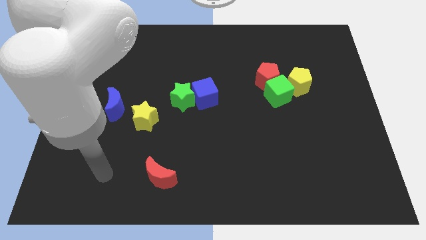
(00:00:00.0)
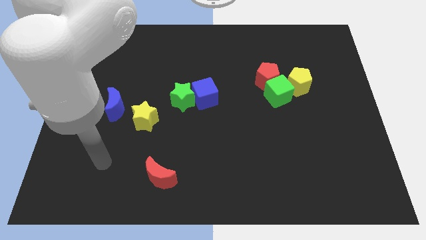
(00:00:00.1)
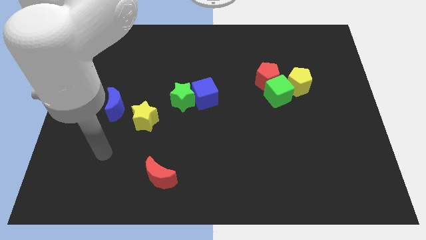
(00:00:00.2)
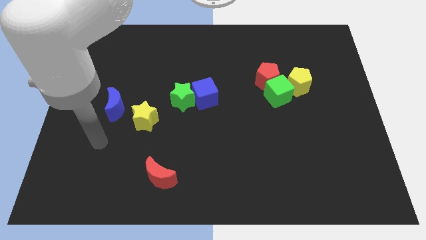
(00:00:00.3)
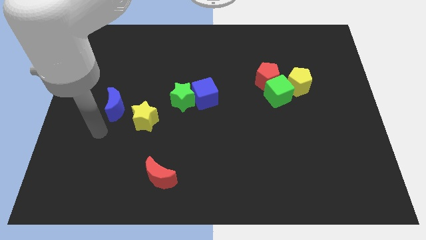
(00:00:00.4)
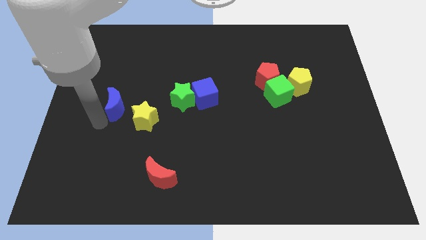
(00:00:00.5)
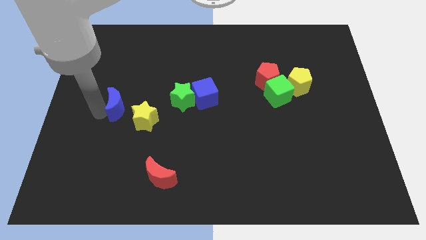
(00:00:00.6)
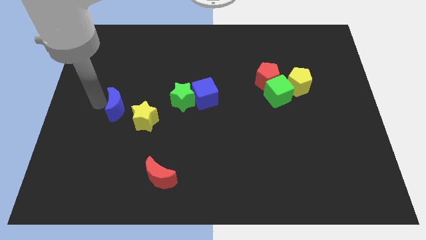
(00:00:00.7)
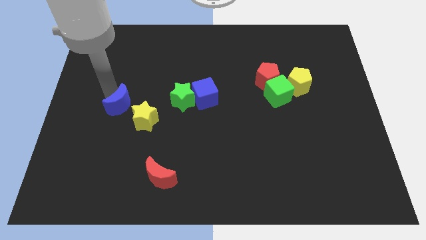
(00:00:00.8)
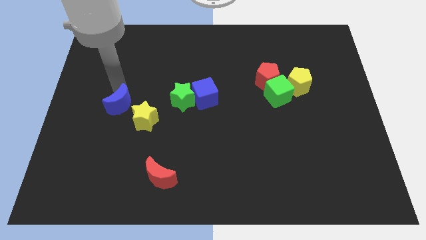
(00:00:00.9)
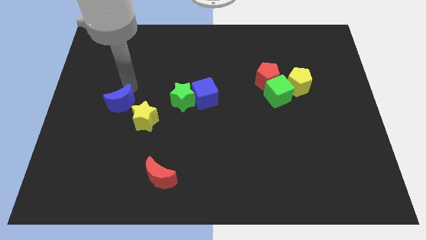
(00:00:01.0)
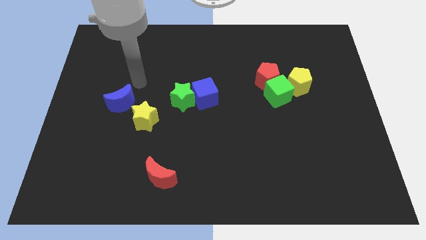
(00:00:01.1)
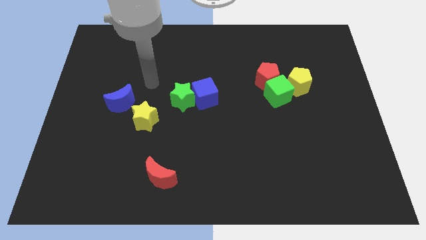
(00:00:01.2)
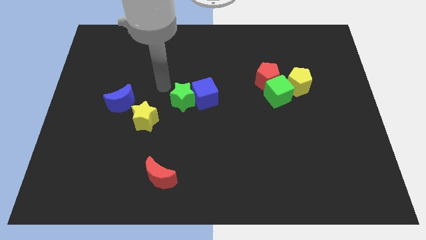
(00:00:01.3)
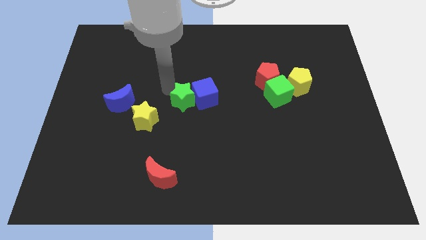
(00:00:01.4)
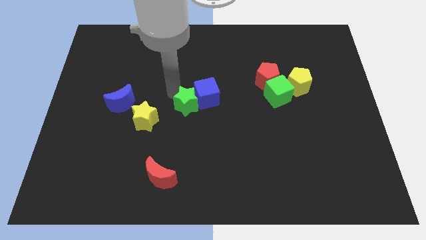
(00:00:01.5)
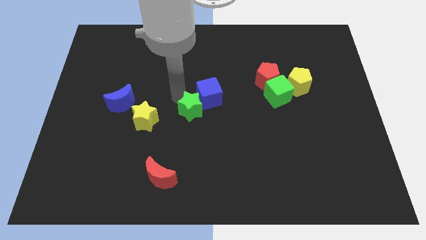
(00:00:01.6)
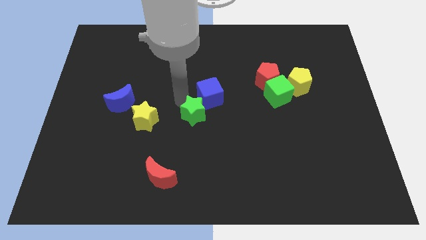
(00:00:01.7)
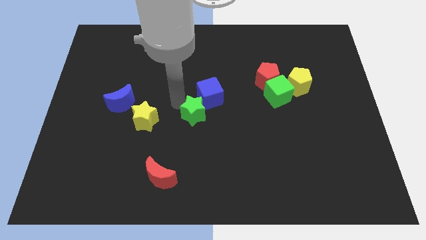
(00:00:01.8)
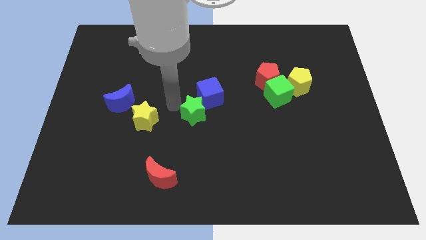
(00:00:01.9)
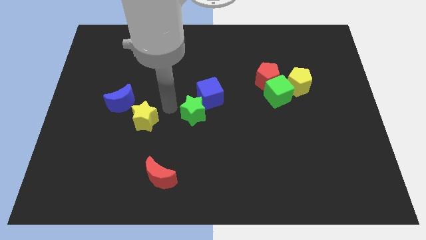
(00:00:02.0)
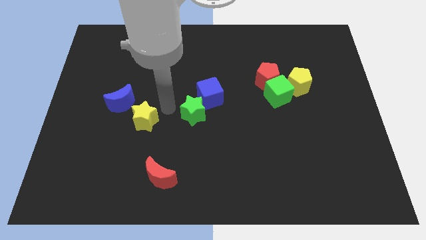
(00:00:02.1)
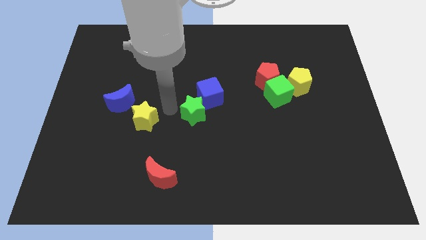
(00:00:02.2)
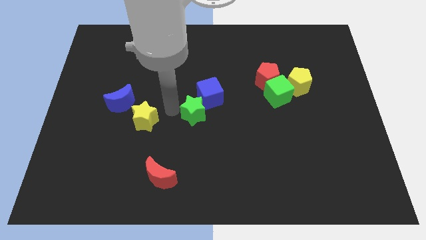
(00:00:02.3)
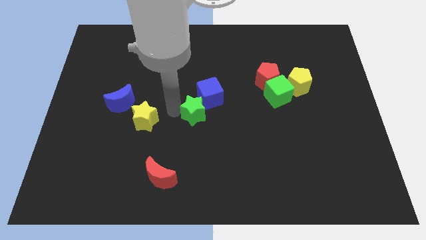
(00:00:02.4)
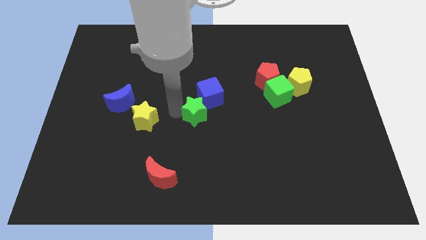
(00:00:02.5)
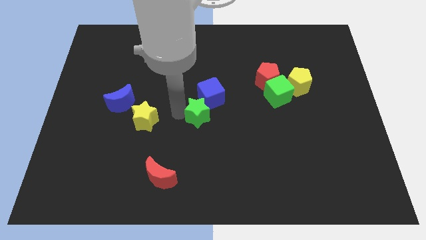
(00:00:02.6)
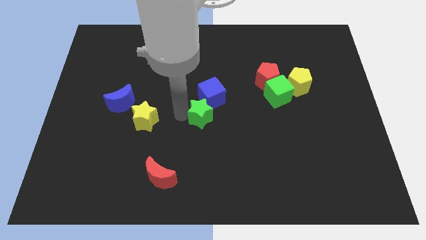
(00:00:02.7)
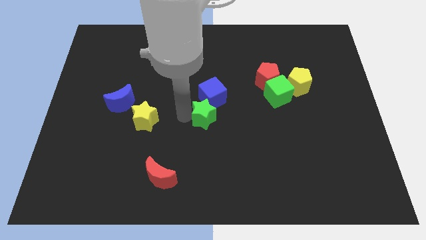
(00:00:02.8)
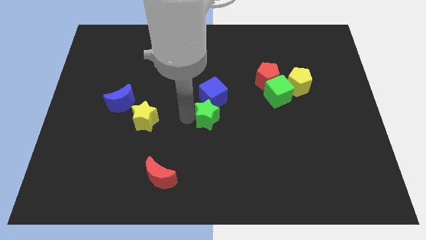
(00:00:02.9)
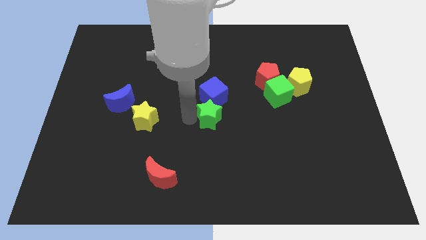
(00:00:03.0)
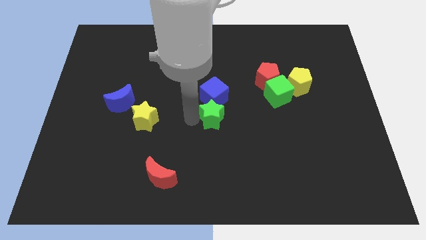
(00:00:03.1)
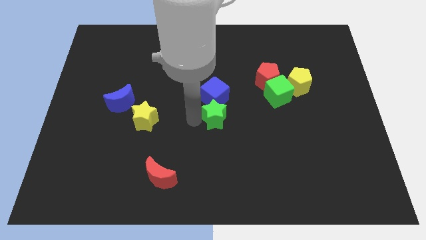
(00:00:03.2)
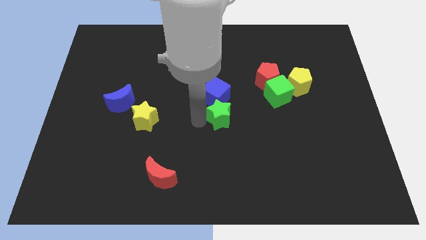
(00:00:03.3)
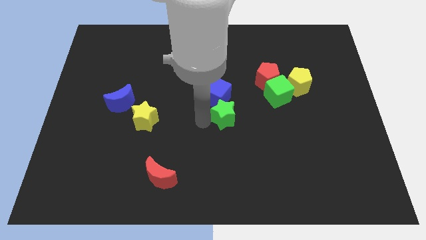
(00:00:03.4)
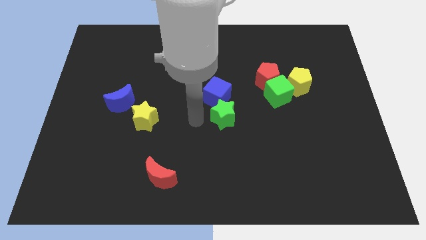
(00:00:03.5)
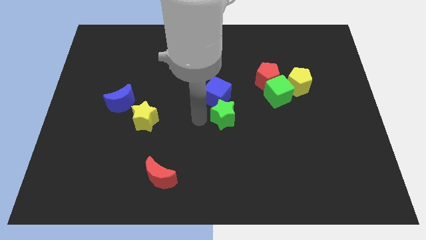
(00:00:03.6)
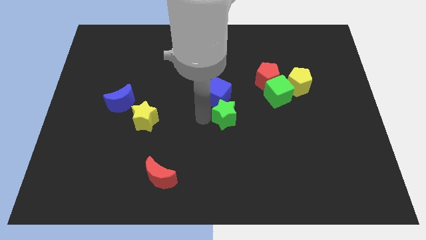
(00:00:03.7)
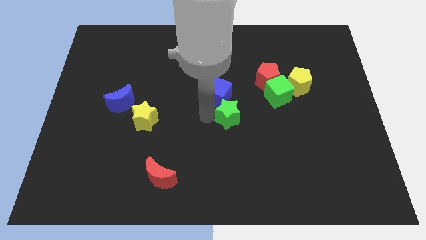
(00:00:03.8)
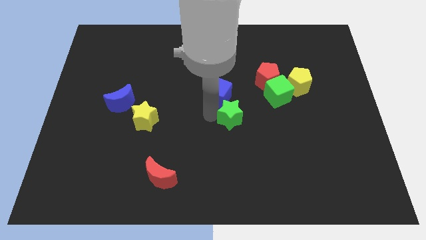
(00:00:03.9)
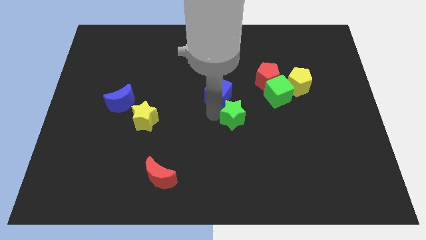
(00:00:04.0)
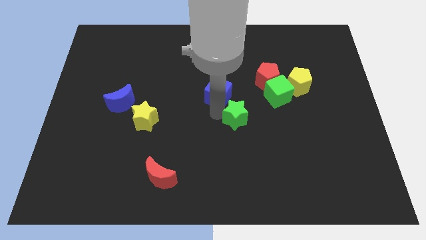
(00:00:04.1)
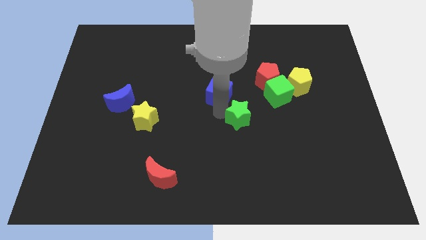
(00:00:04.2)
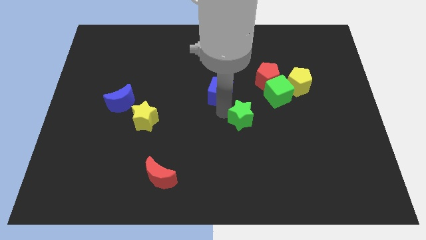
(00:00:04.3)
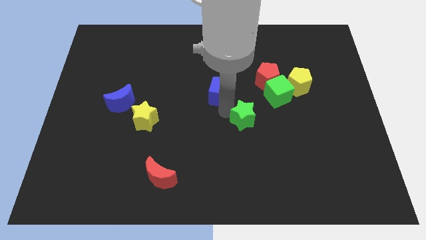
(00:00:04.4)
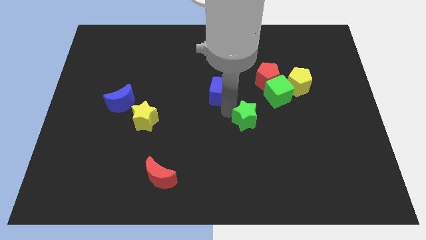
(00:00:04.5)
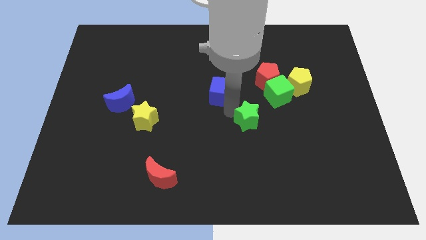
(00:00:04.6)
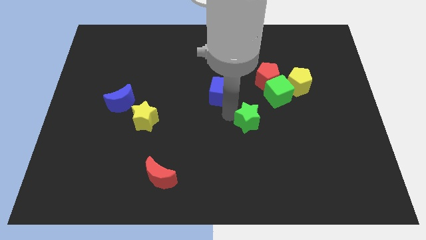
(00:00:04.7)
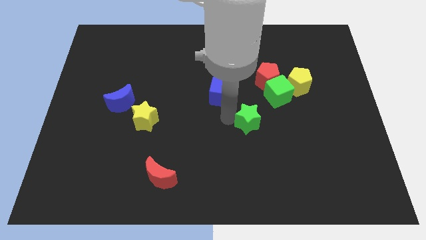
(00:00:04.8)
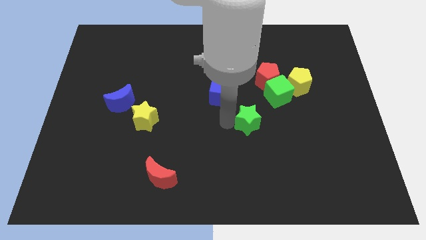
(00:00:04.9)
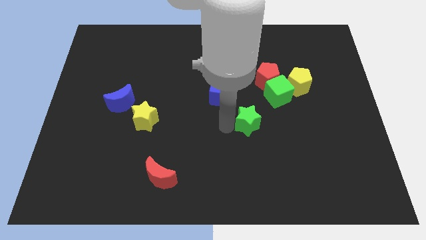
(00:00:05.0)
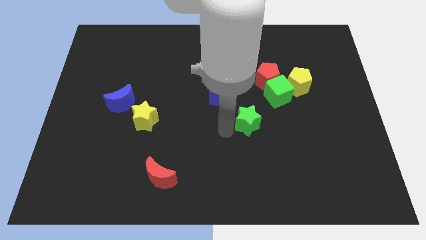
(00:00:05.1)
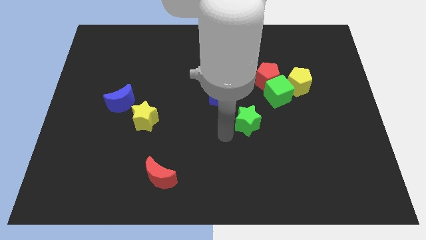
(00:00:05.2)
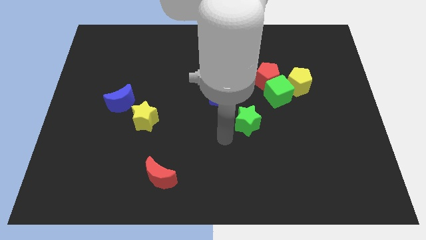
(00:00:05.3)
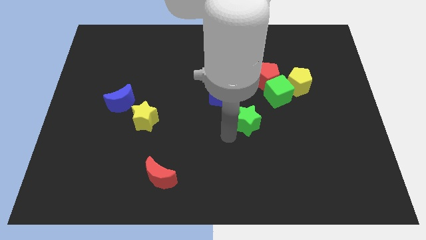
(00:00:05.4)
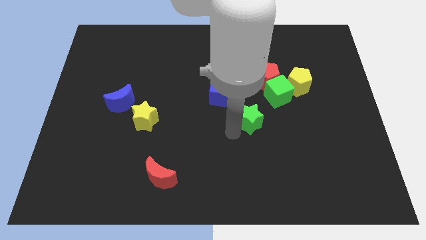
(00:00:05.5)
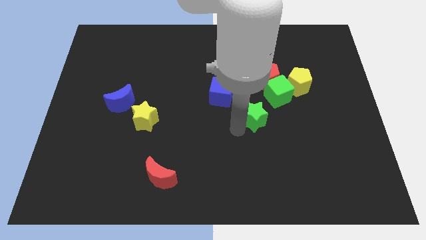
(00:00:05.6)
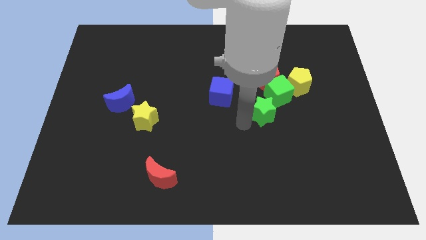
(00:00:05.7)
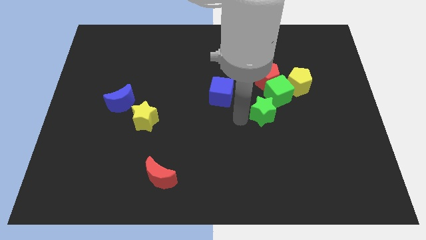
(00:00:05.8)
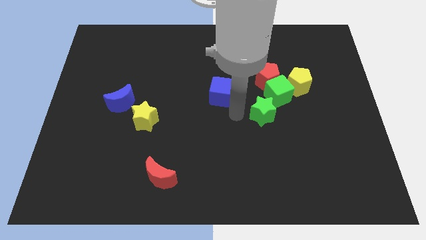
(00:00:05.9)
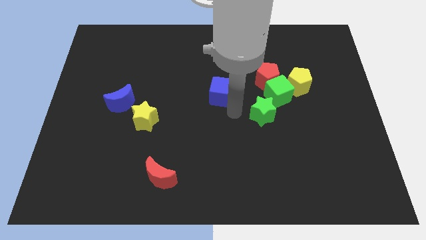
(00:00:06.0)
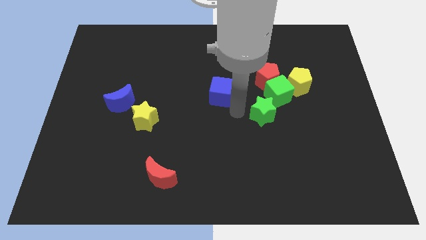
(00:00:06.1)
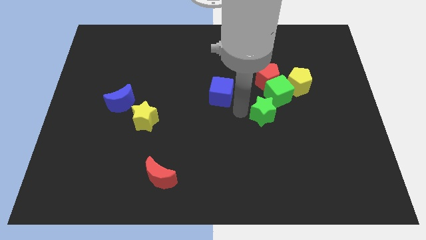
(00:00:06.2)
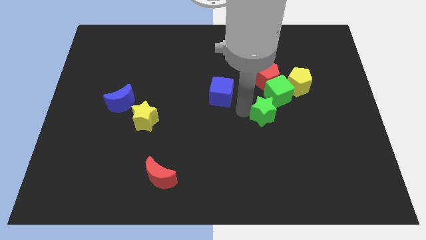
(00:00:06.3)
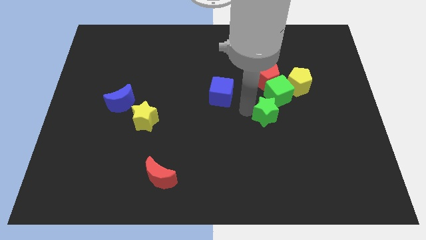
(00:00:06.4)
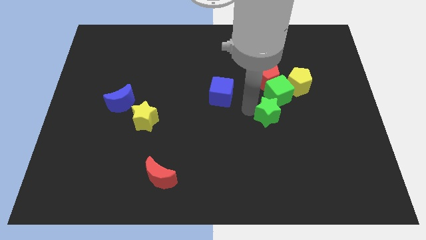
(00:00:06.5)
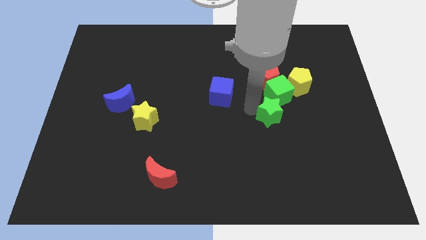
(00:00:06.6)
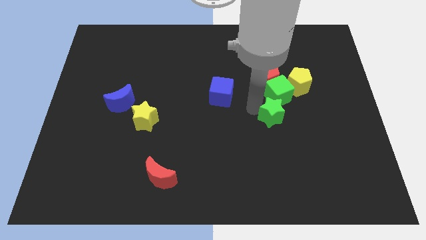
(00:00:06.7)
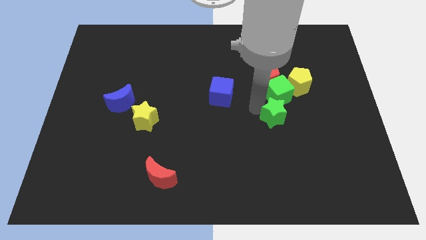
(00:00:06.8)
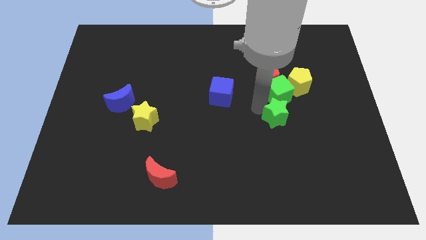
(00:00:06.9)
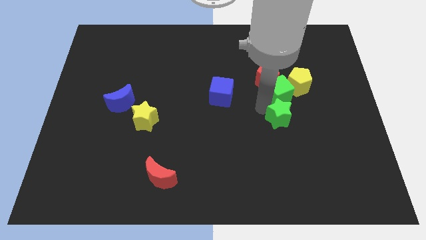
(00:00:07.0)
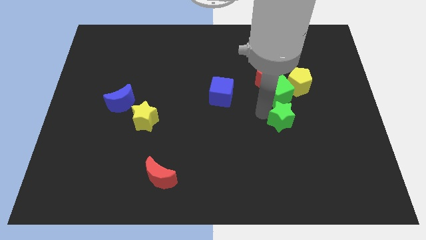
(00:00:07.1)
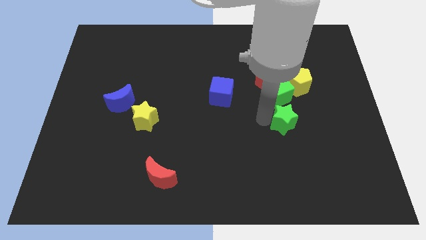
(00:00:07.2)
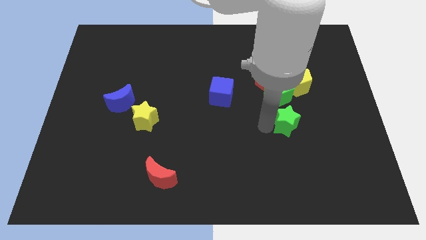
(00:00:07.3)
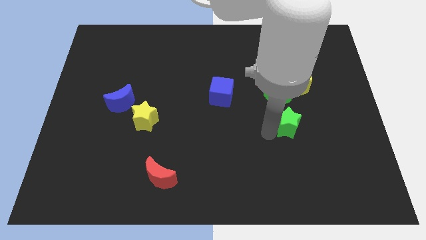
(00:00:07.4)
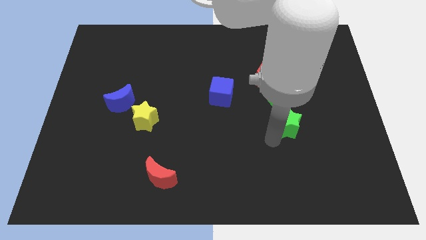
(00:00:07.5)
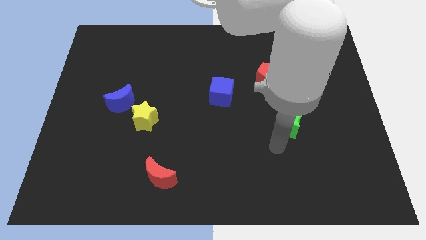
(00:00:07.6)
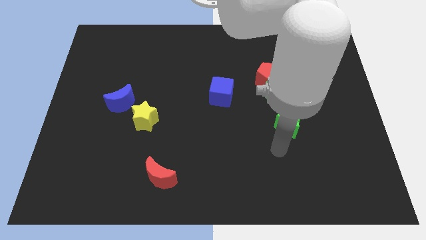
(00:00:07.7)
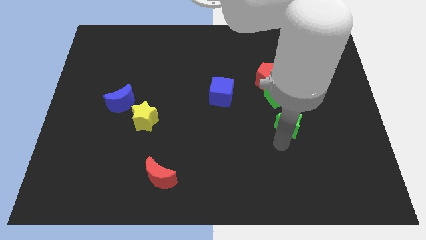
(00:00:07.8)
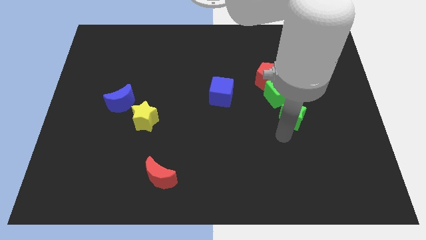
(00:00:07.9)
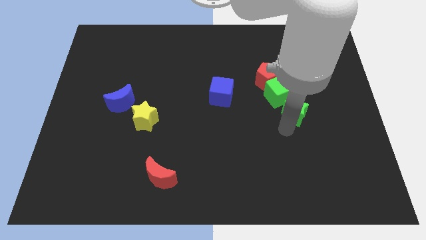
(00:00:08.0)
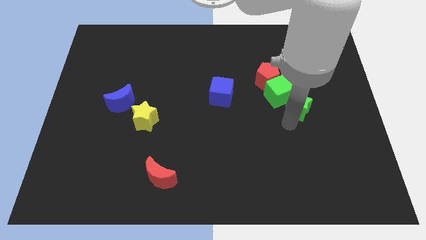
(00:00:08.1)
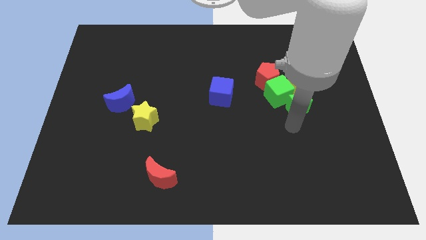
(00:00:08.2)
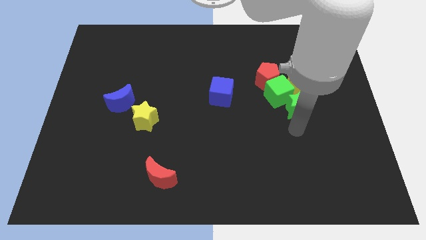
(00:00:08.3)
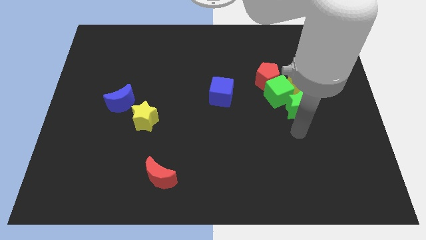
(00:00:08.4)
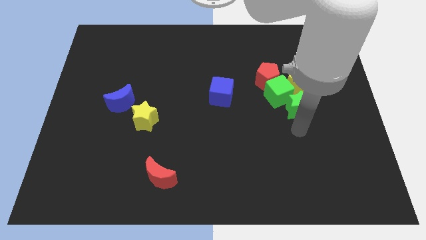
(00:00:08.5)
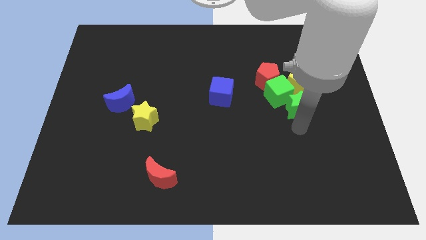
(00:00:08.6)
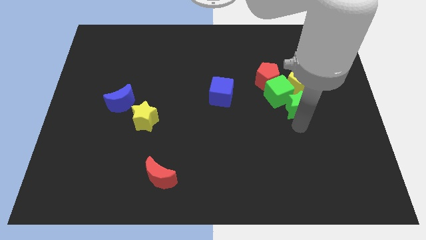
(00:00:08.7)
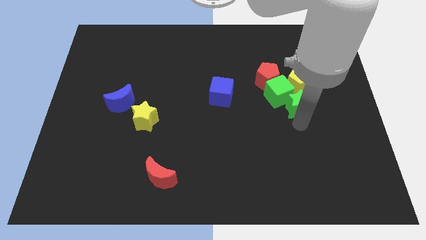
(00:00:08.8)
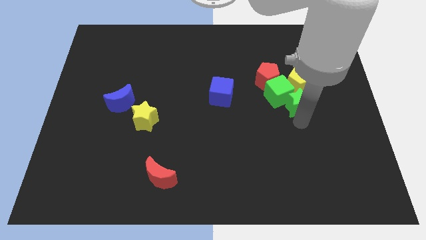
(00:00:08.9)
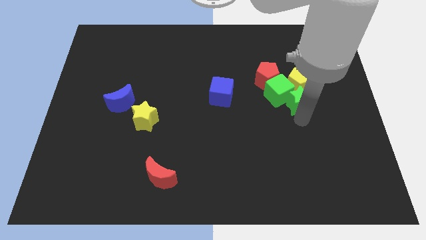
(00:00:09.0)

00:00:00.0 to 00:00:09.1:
put the green star close to the yellow pentagon
